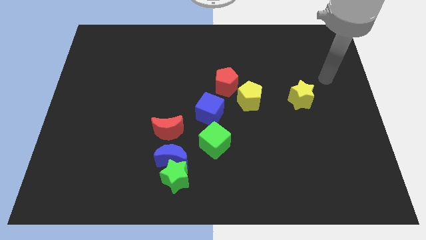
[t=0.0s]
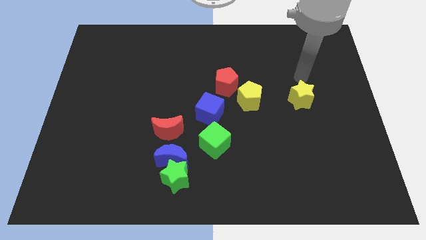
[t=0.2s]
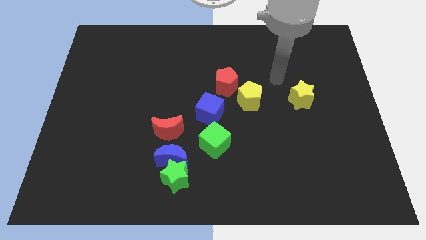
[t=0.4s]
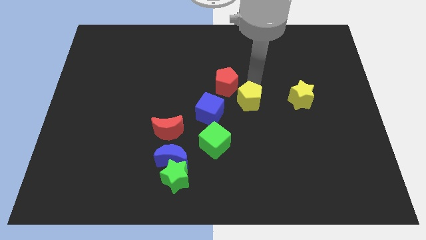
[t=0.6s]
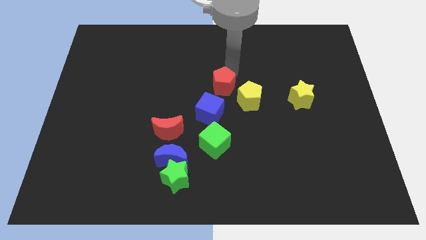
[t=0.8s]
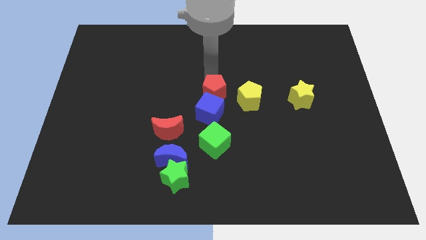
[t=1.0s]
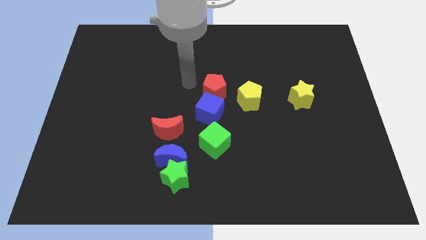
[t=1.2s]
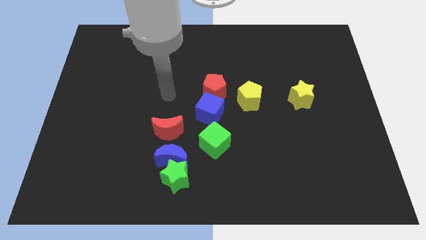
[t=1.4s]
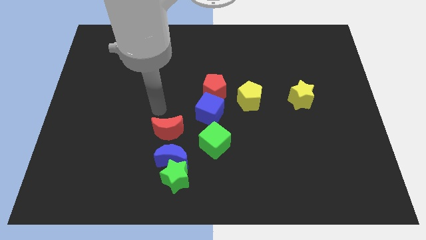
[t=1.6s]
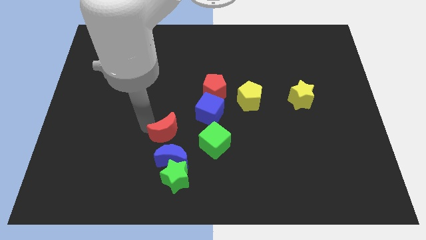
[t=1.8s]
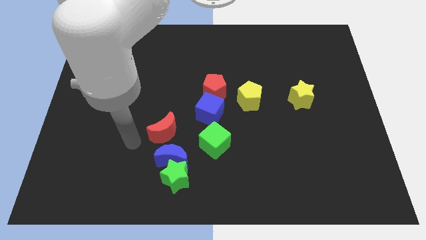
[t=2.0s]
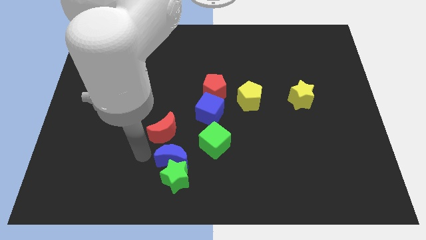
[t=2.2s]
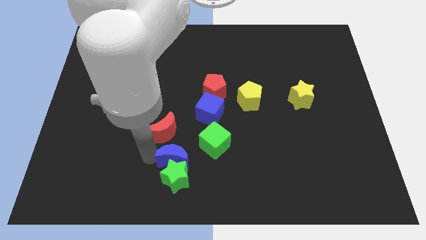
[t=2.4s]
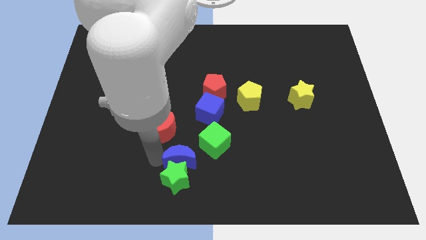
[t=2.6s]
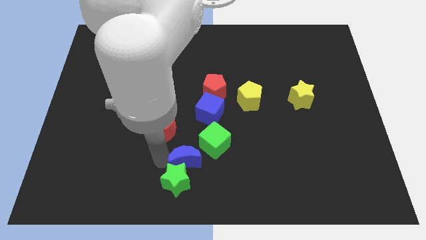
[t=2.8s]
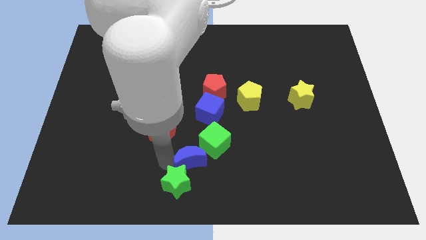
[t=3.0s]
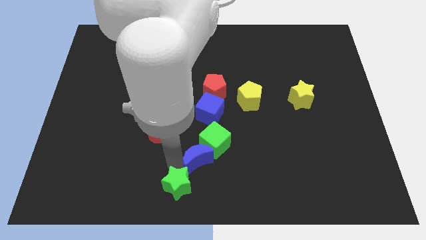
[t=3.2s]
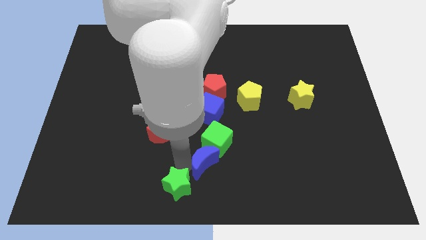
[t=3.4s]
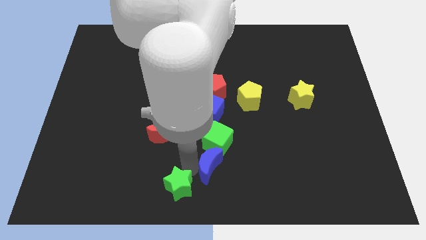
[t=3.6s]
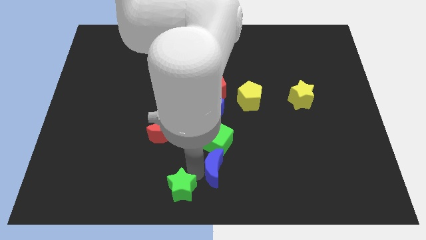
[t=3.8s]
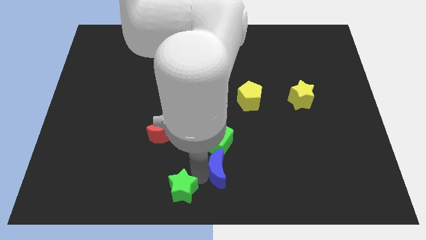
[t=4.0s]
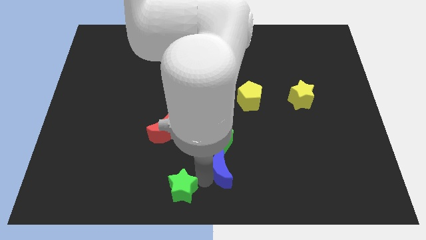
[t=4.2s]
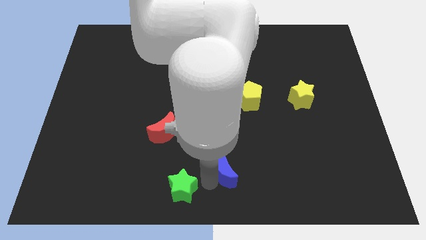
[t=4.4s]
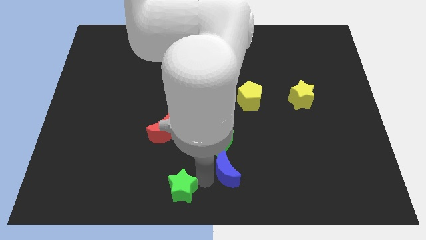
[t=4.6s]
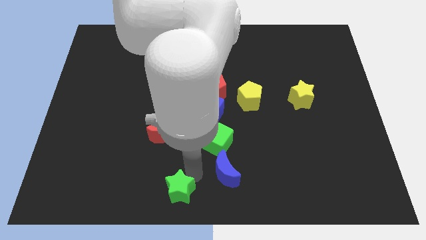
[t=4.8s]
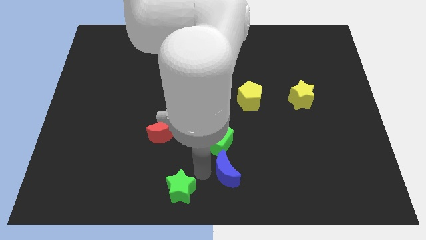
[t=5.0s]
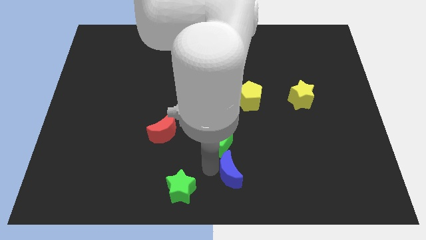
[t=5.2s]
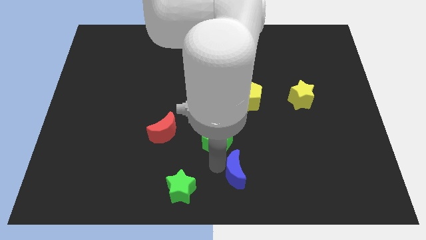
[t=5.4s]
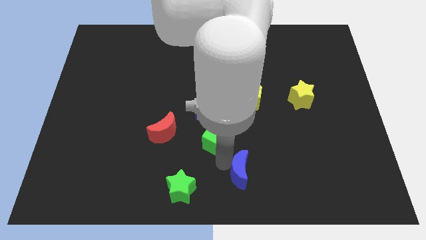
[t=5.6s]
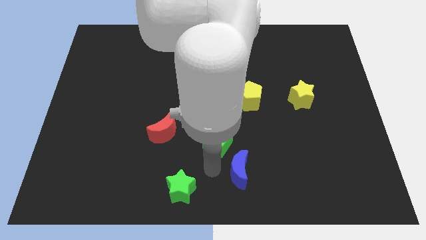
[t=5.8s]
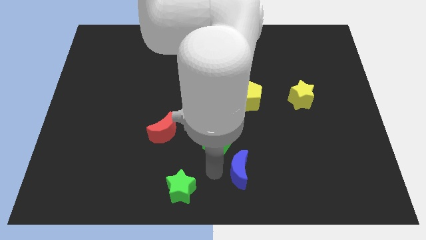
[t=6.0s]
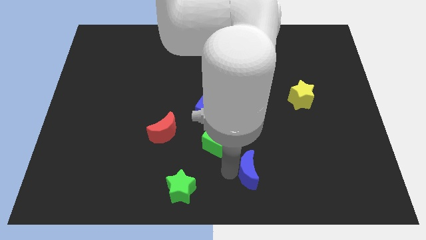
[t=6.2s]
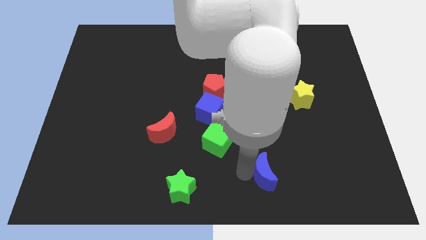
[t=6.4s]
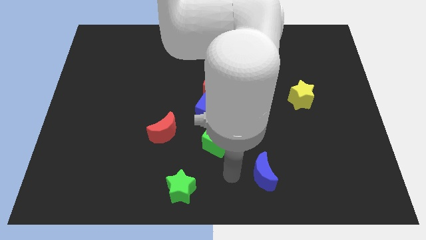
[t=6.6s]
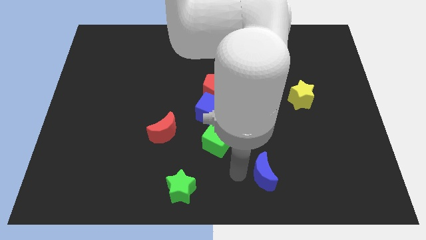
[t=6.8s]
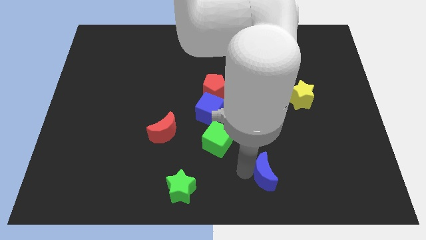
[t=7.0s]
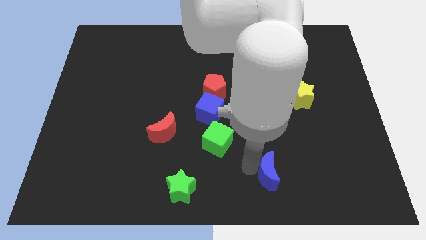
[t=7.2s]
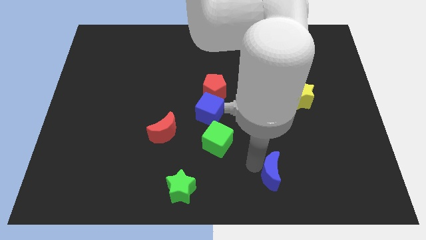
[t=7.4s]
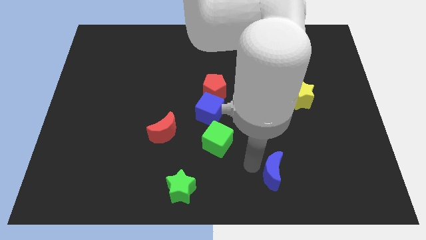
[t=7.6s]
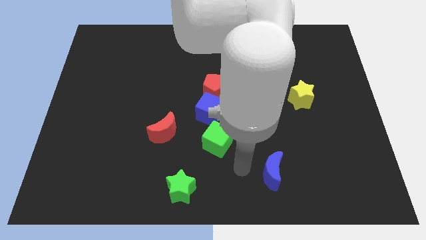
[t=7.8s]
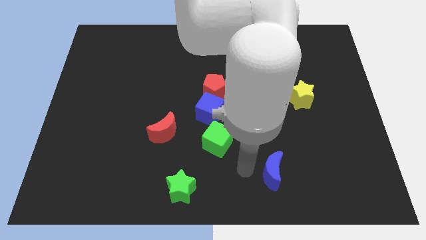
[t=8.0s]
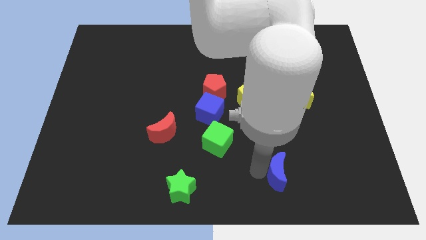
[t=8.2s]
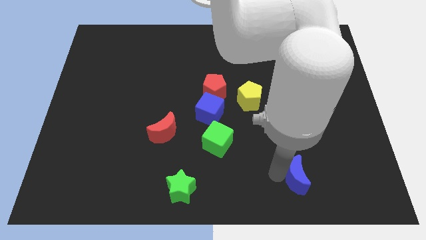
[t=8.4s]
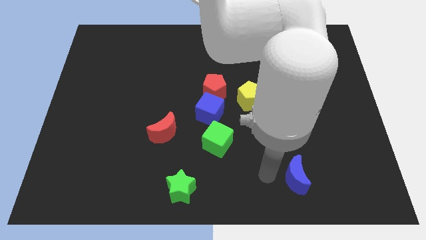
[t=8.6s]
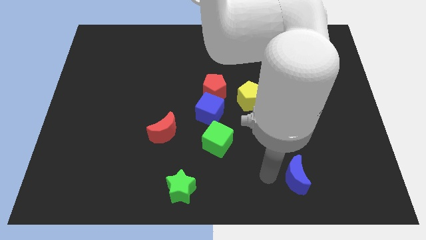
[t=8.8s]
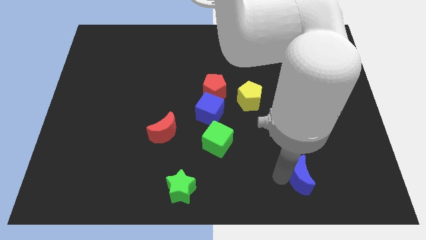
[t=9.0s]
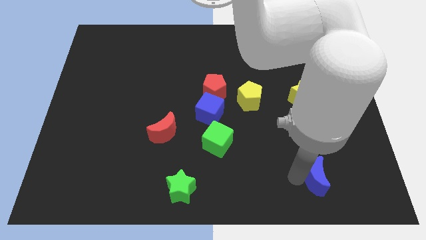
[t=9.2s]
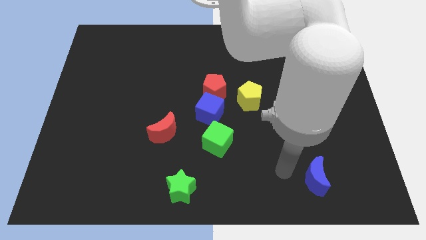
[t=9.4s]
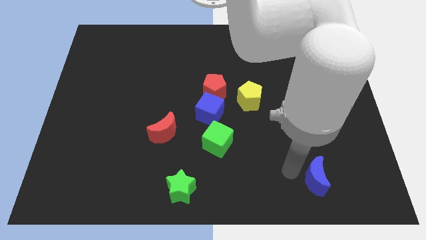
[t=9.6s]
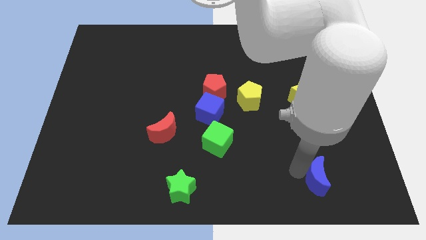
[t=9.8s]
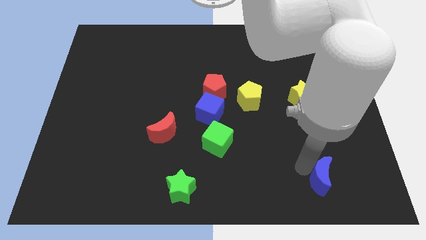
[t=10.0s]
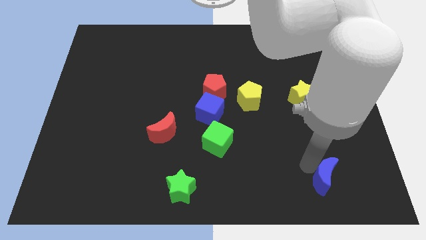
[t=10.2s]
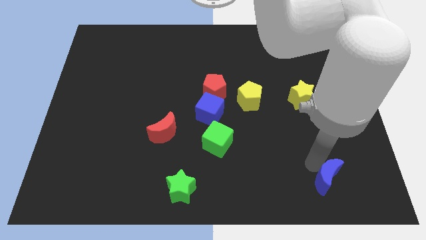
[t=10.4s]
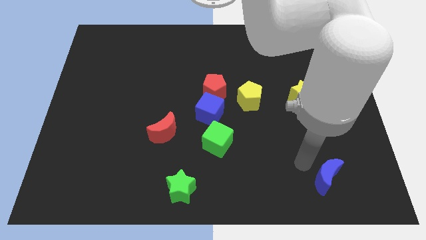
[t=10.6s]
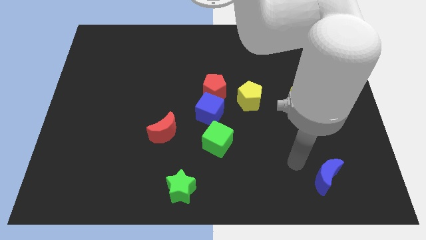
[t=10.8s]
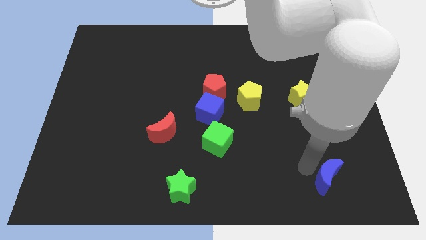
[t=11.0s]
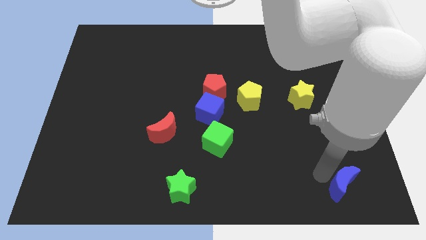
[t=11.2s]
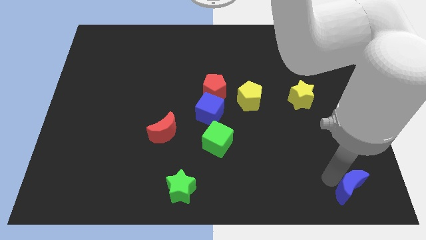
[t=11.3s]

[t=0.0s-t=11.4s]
put the blue moon to the bottom right
